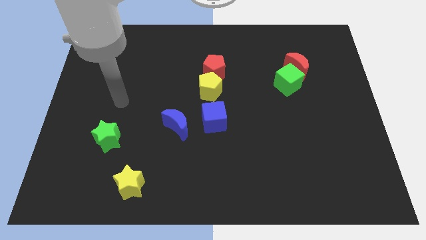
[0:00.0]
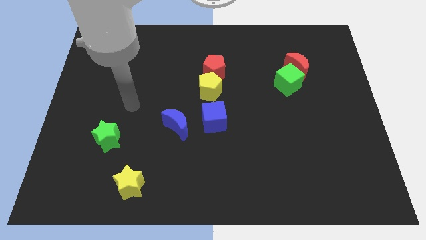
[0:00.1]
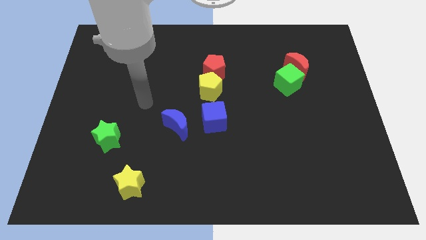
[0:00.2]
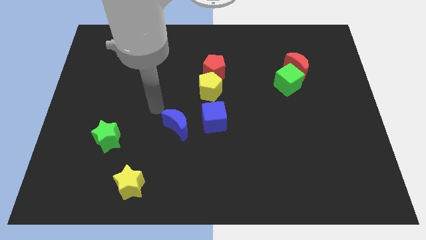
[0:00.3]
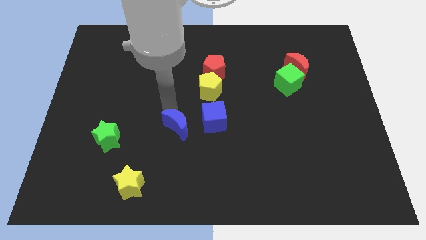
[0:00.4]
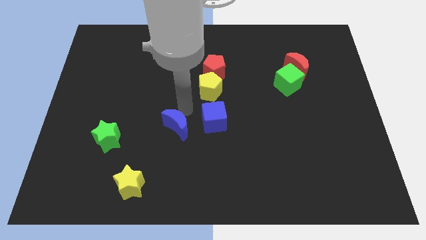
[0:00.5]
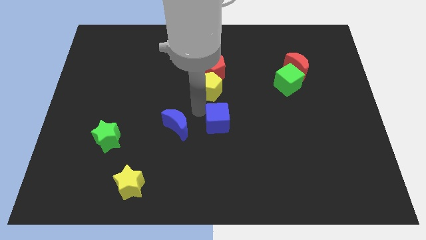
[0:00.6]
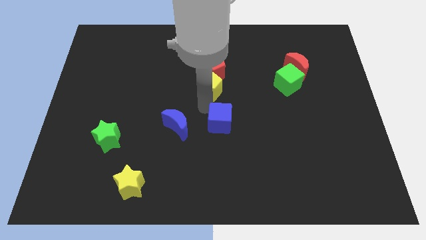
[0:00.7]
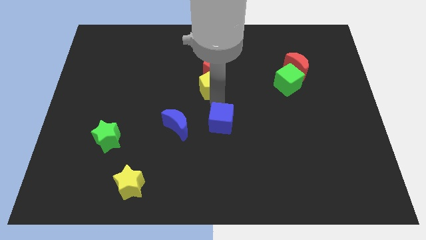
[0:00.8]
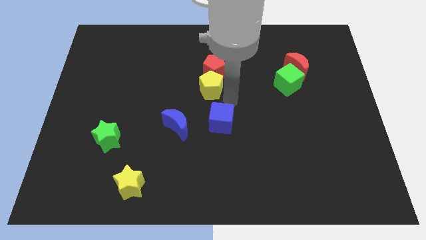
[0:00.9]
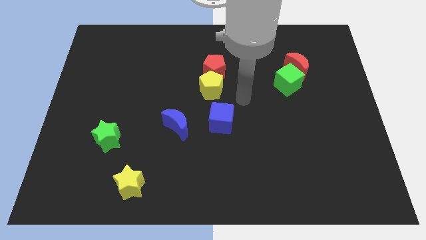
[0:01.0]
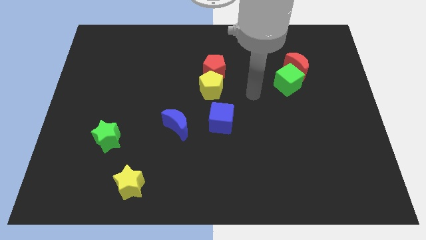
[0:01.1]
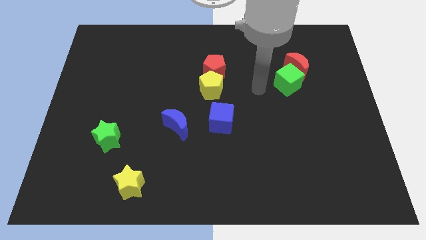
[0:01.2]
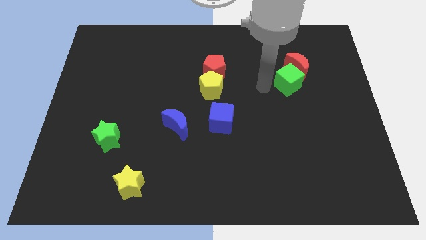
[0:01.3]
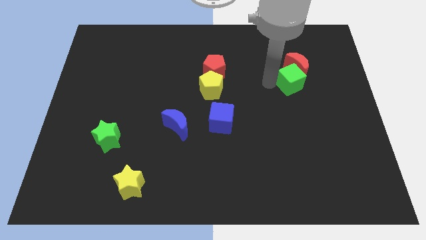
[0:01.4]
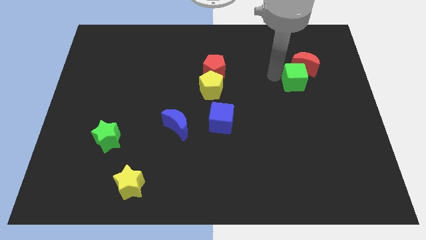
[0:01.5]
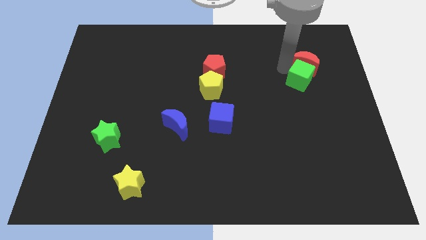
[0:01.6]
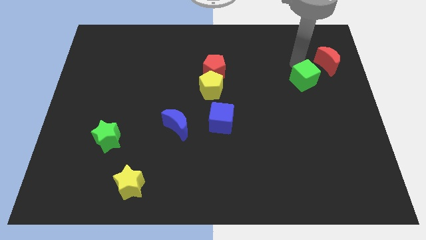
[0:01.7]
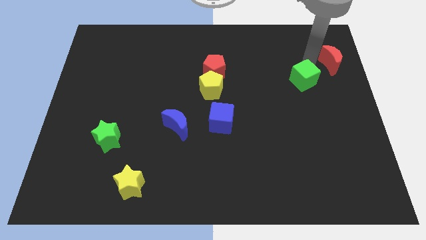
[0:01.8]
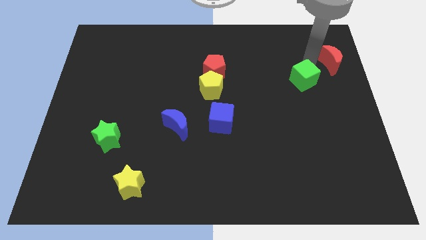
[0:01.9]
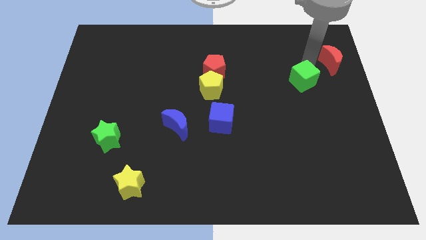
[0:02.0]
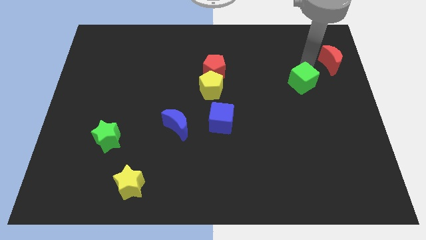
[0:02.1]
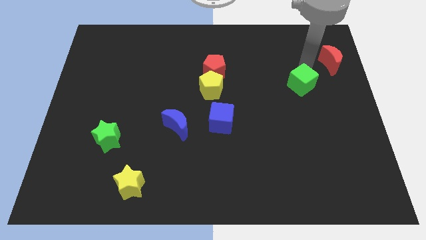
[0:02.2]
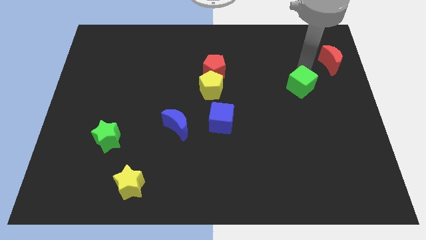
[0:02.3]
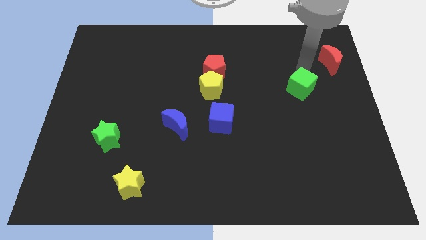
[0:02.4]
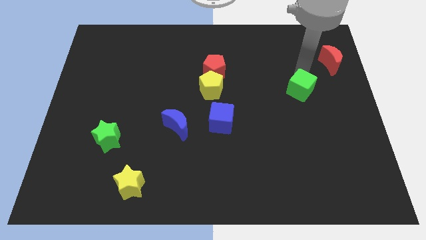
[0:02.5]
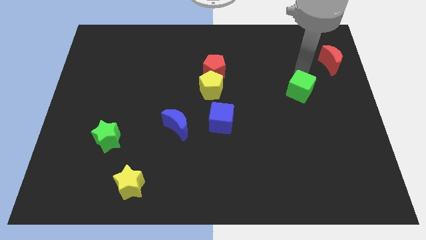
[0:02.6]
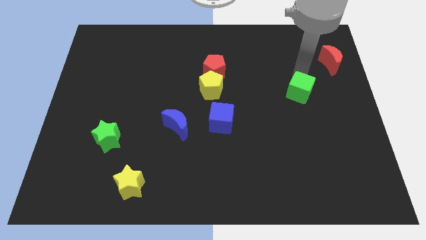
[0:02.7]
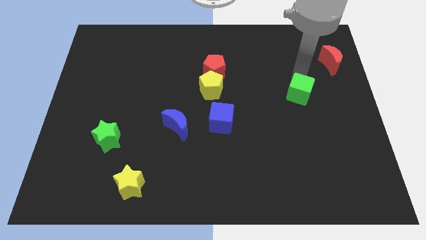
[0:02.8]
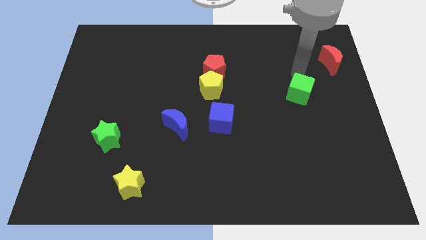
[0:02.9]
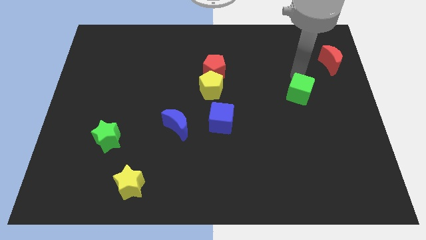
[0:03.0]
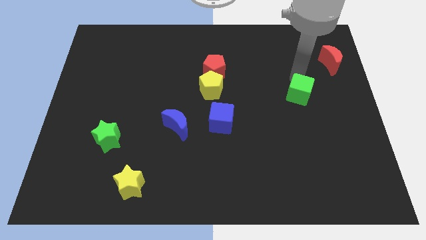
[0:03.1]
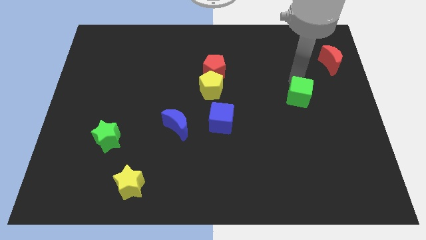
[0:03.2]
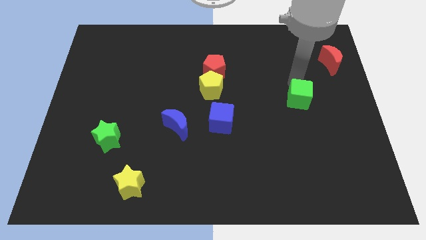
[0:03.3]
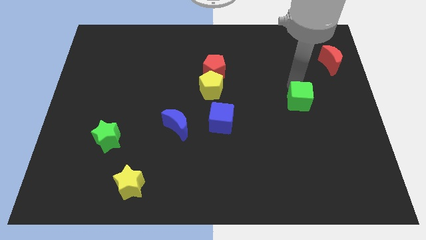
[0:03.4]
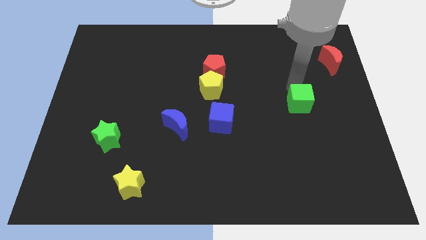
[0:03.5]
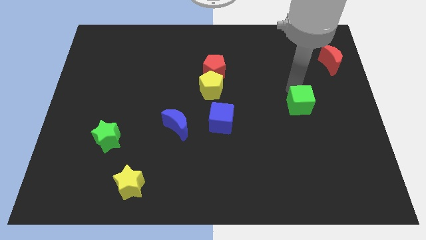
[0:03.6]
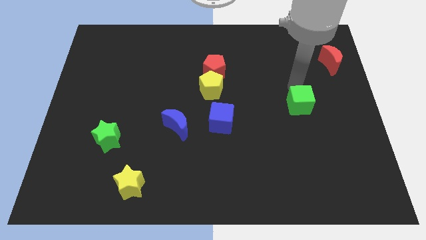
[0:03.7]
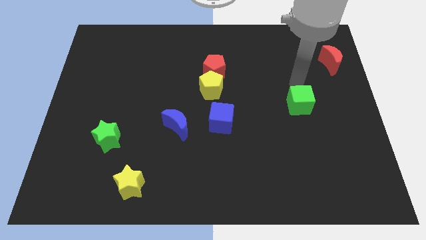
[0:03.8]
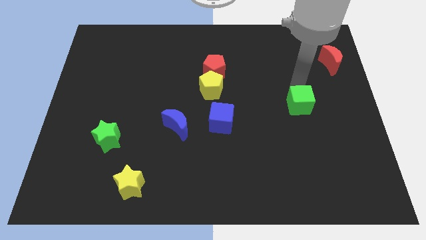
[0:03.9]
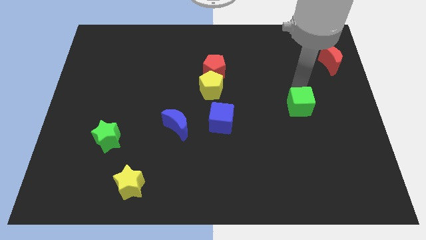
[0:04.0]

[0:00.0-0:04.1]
move the green cube downwards a little

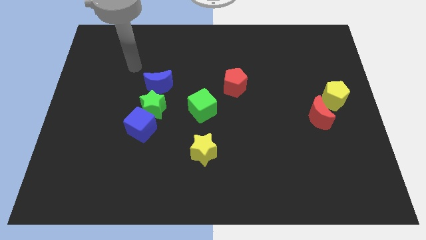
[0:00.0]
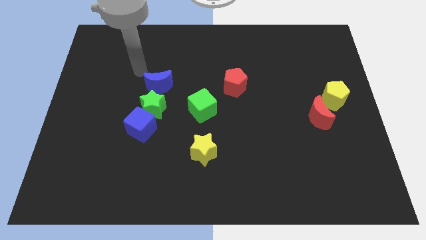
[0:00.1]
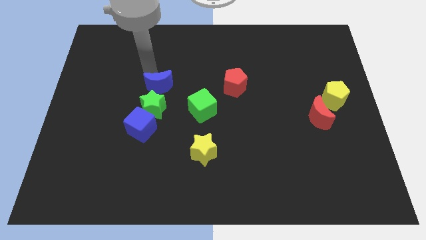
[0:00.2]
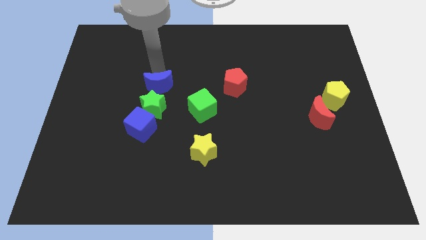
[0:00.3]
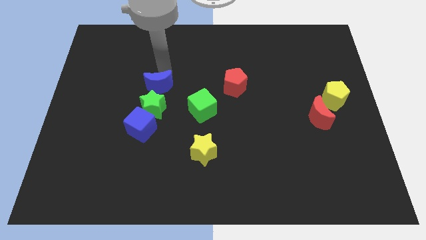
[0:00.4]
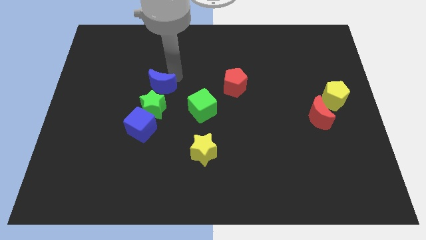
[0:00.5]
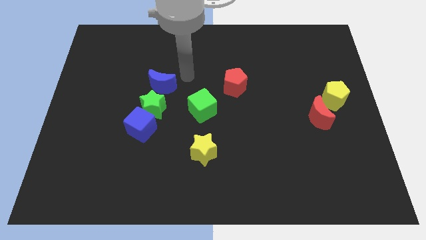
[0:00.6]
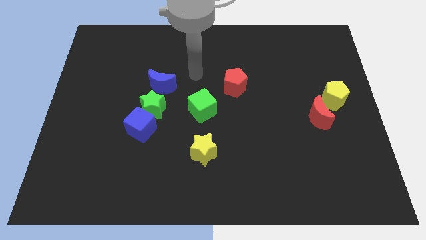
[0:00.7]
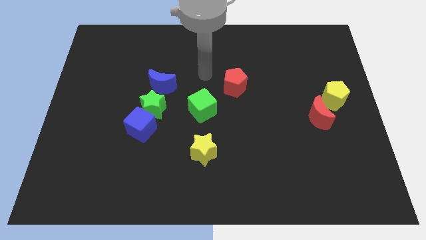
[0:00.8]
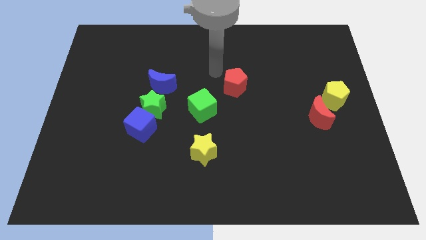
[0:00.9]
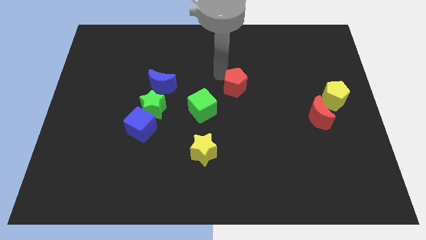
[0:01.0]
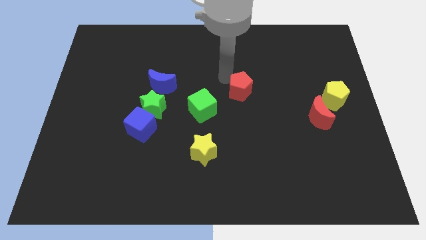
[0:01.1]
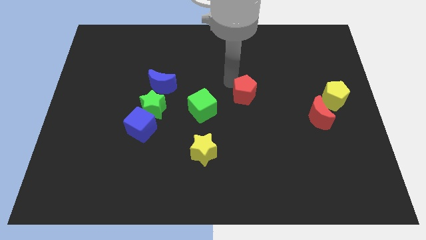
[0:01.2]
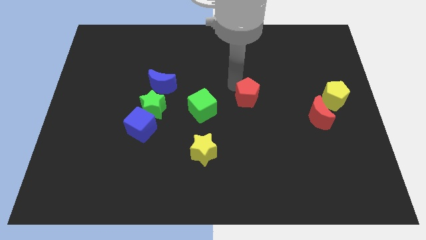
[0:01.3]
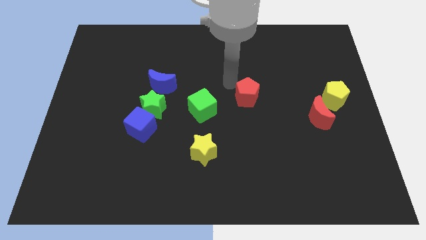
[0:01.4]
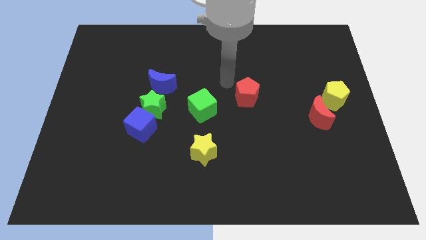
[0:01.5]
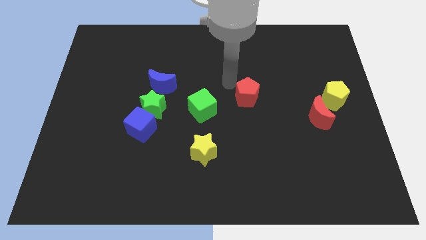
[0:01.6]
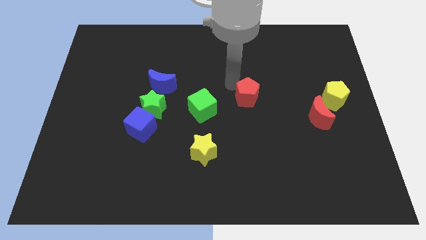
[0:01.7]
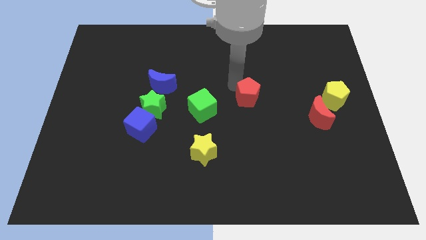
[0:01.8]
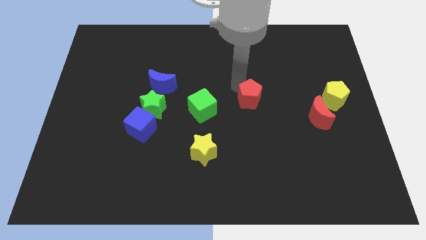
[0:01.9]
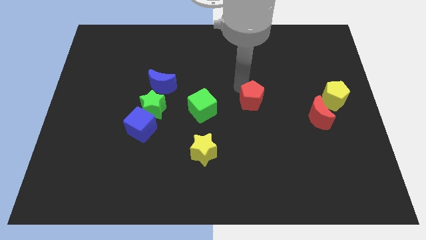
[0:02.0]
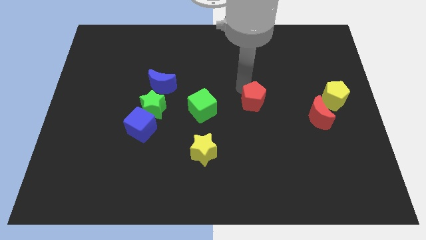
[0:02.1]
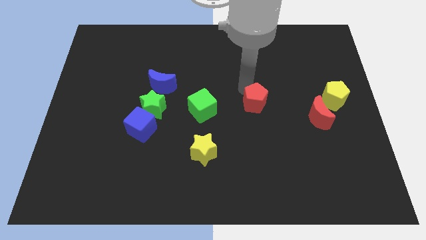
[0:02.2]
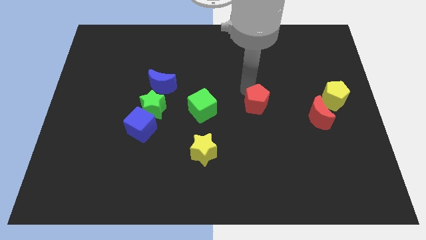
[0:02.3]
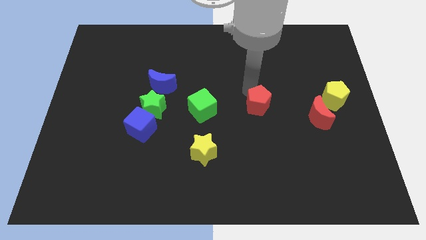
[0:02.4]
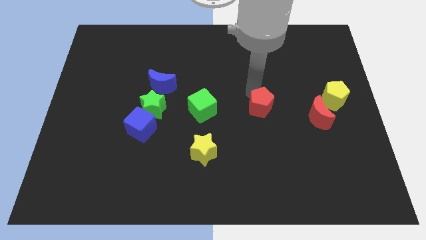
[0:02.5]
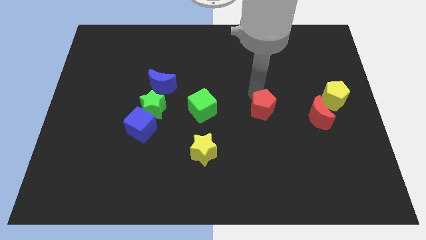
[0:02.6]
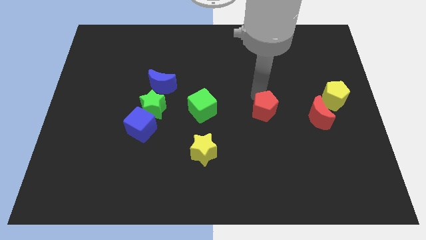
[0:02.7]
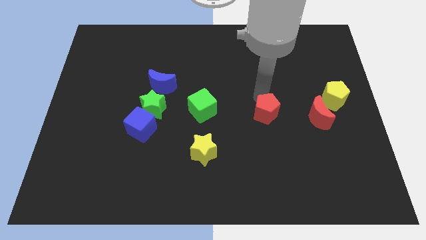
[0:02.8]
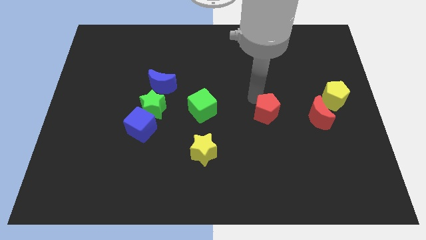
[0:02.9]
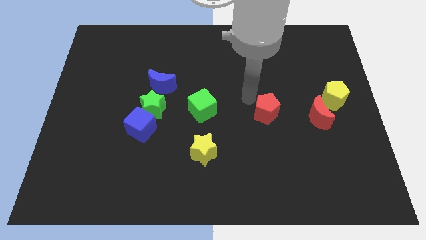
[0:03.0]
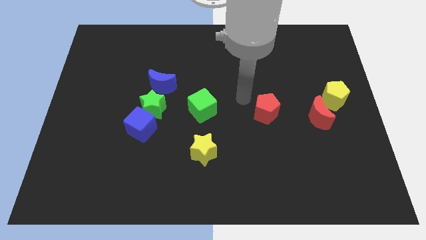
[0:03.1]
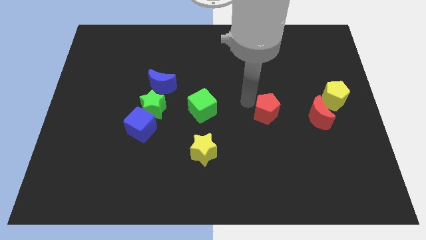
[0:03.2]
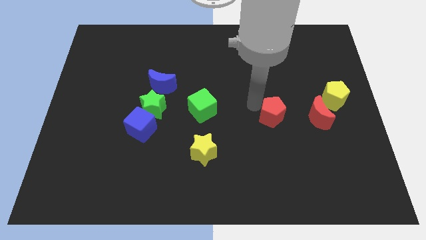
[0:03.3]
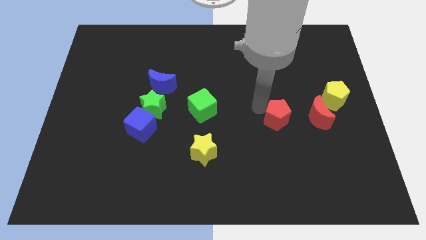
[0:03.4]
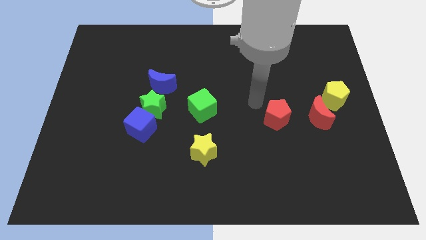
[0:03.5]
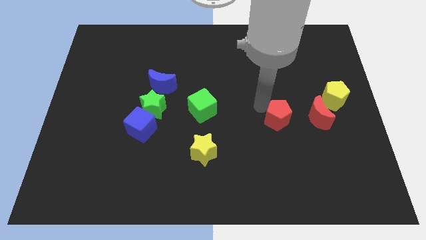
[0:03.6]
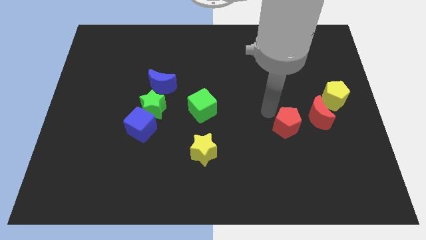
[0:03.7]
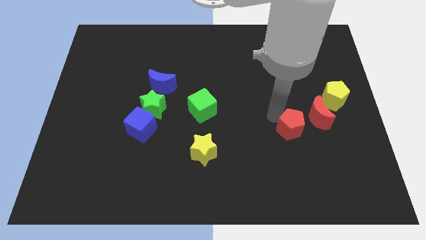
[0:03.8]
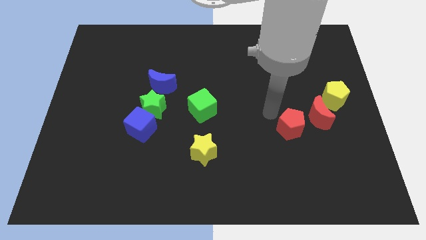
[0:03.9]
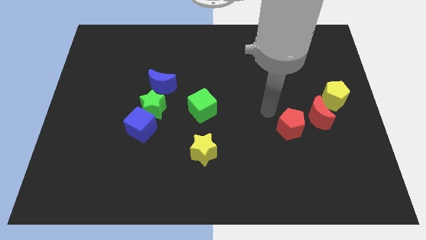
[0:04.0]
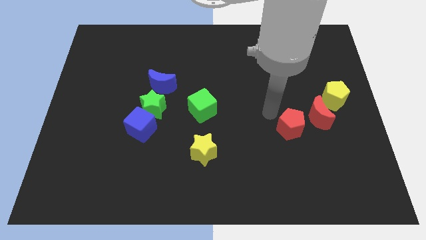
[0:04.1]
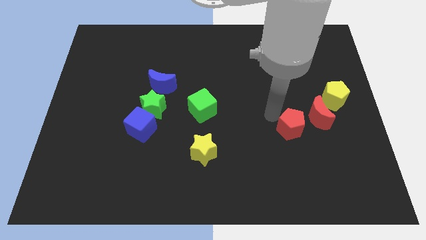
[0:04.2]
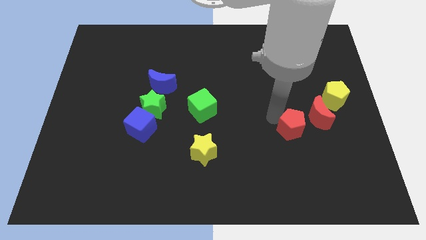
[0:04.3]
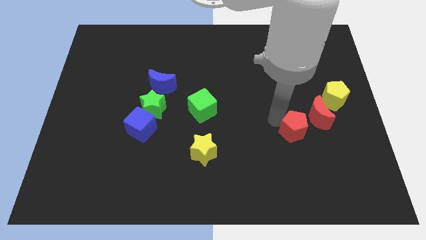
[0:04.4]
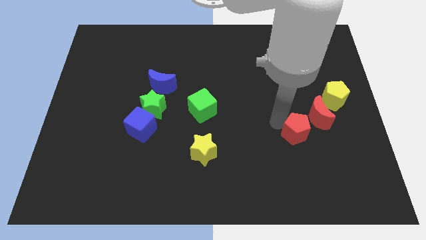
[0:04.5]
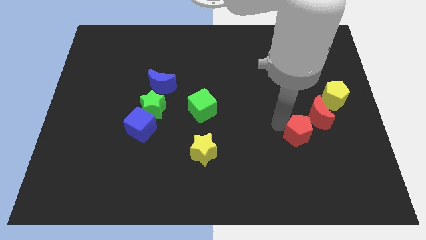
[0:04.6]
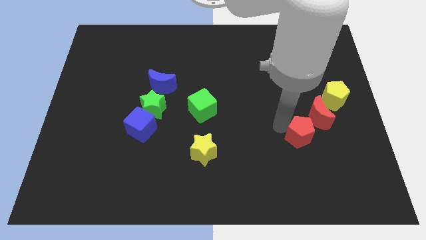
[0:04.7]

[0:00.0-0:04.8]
push the red pentagon downwards and right
